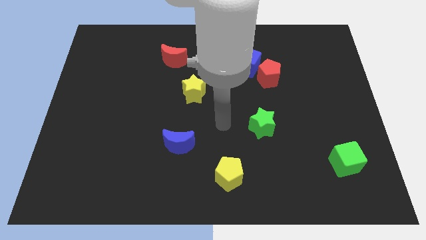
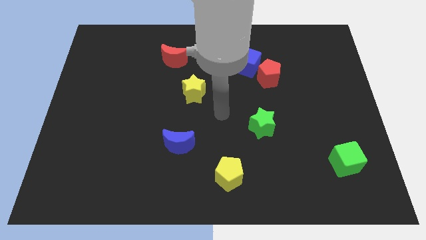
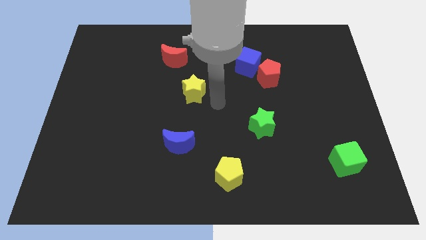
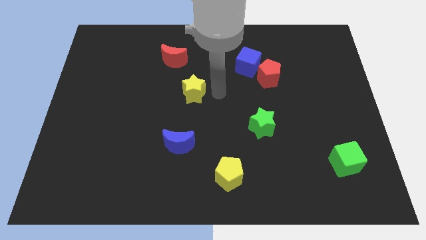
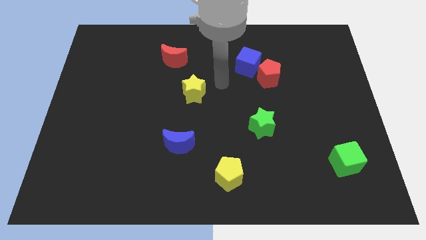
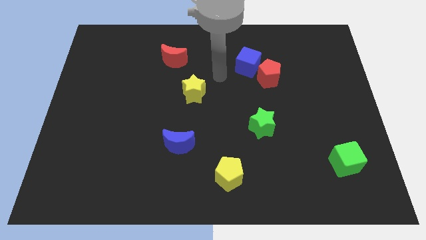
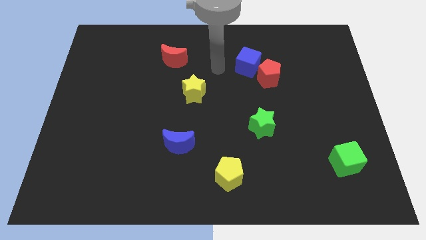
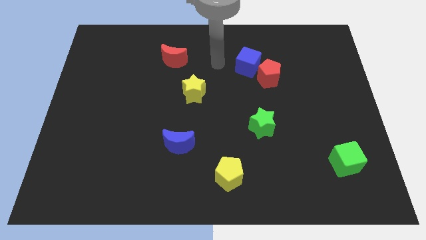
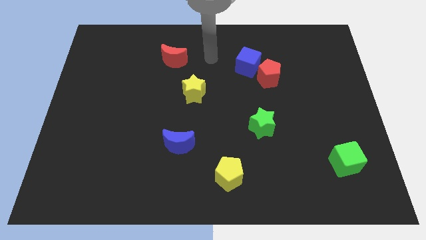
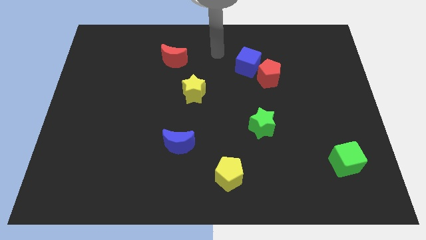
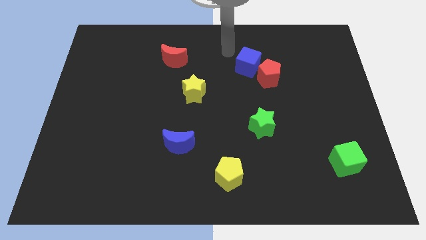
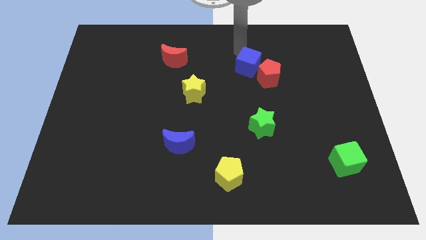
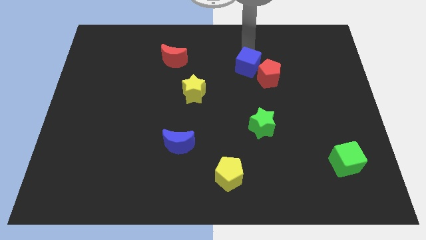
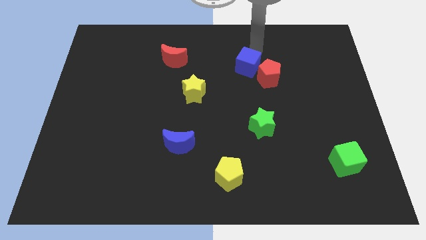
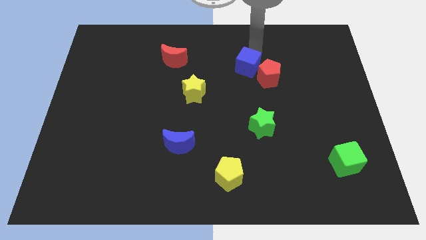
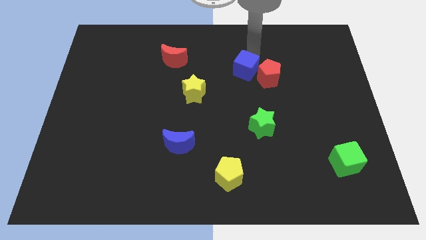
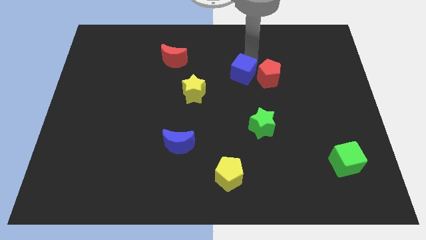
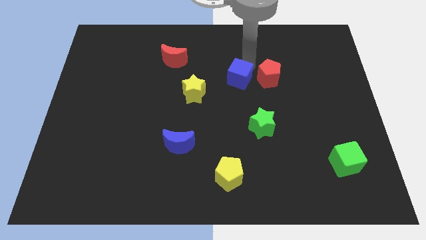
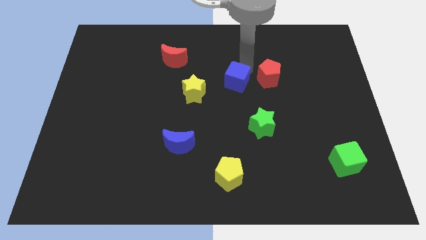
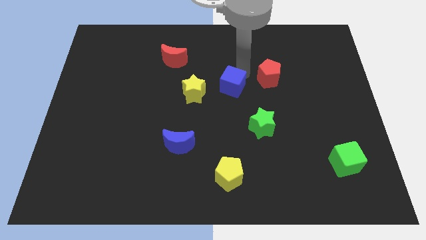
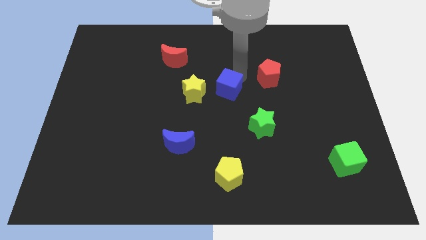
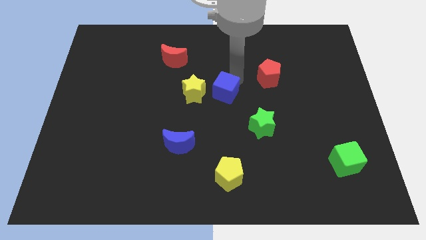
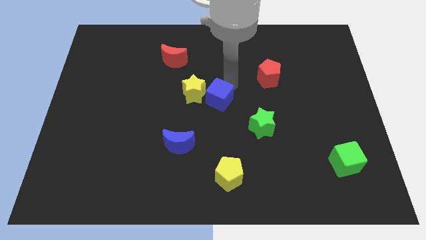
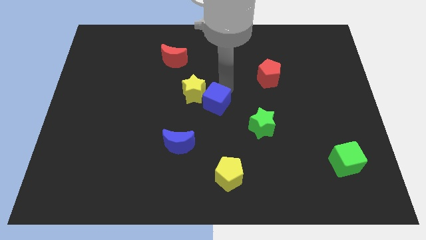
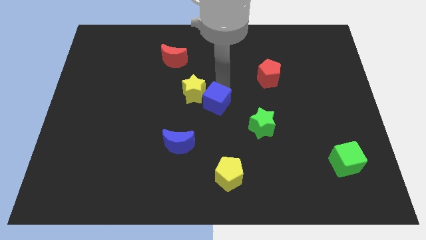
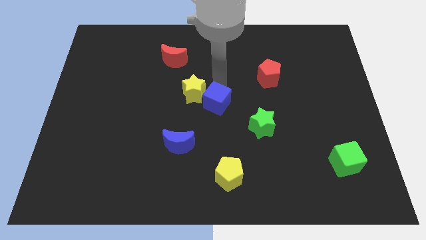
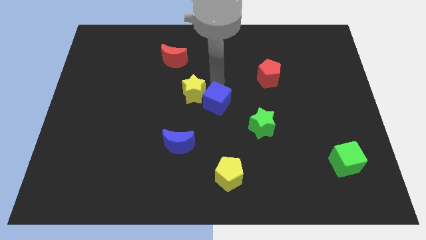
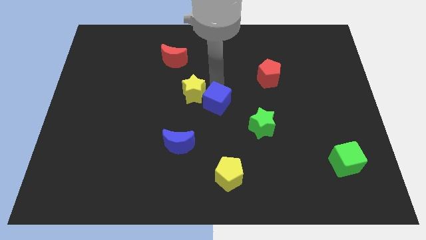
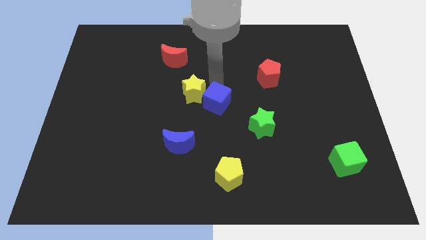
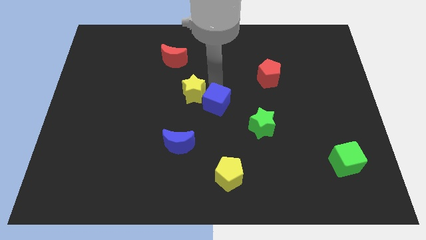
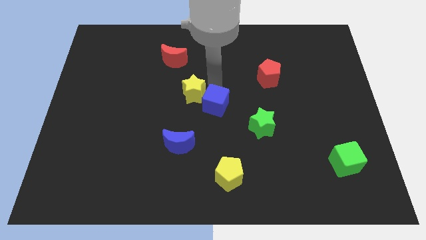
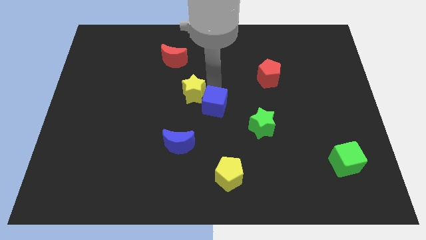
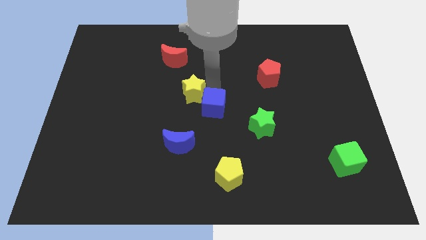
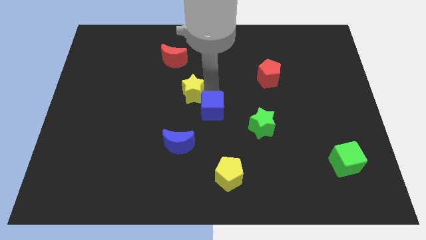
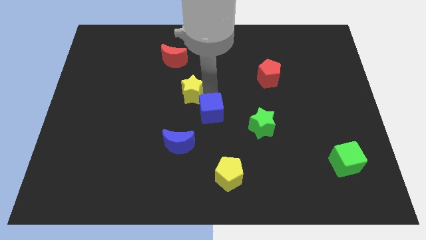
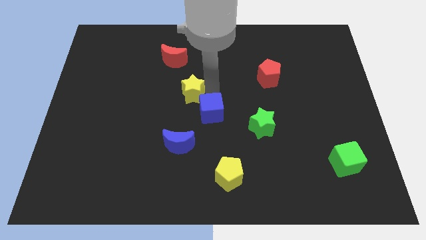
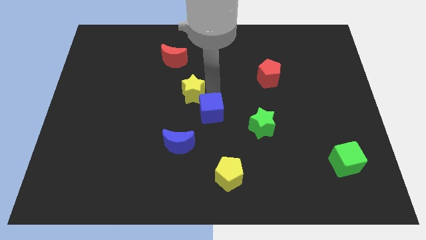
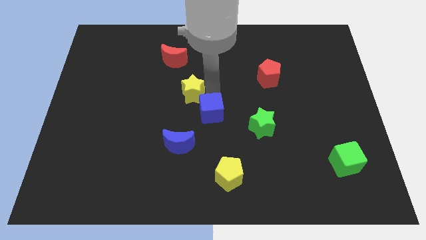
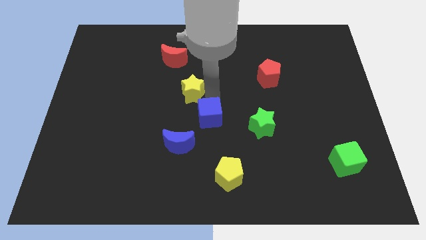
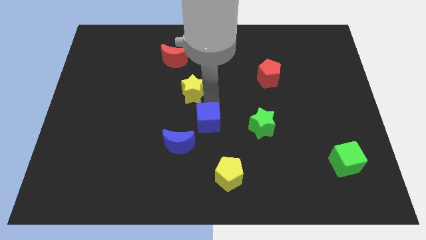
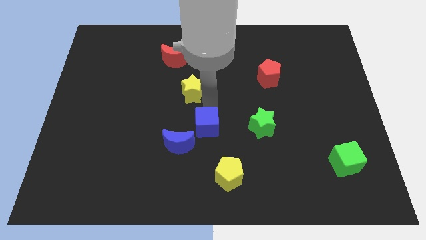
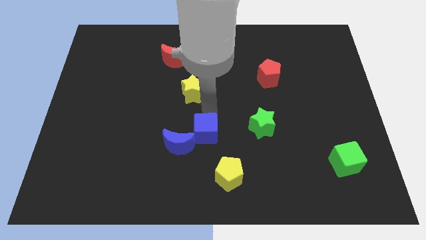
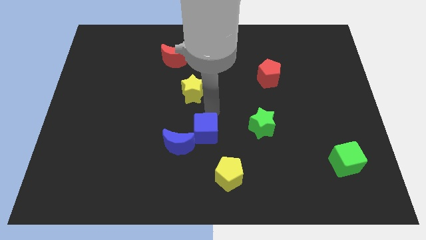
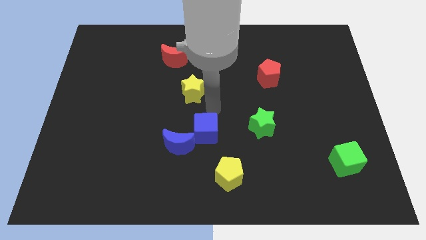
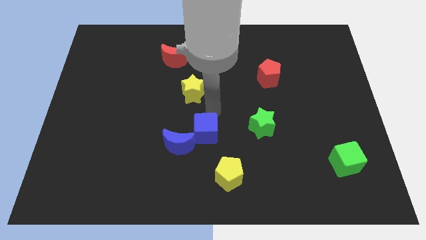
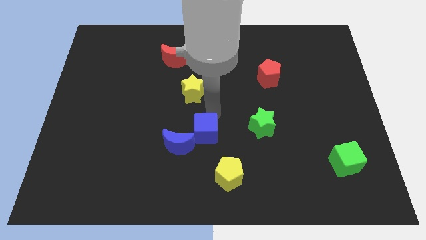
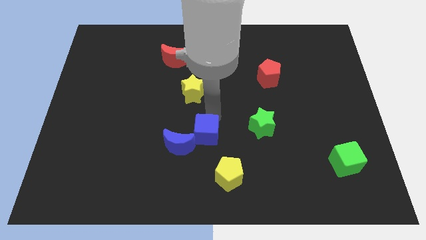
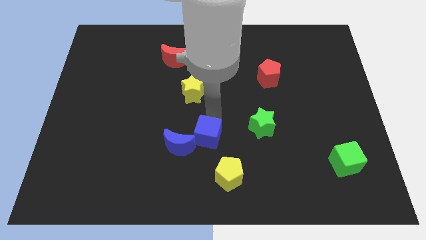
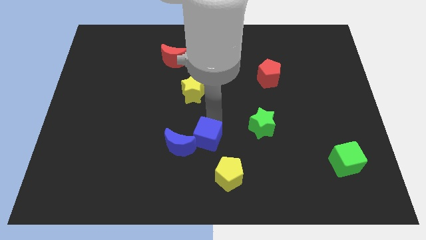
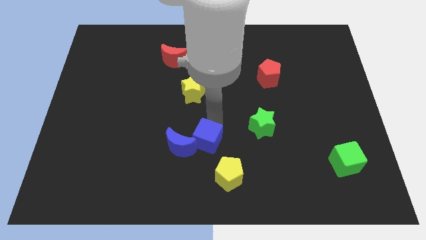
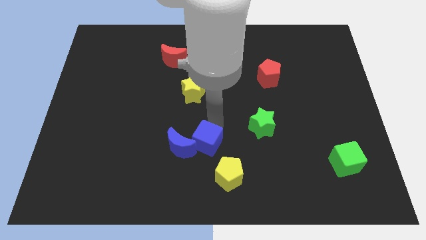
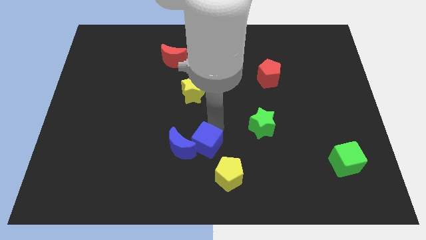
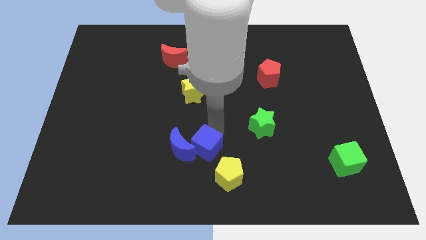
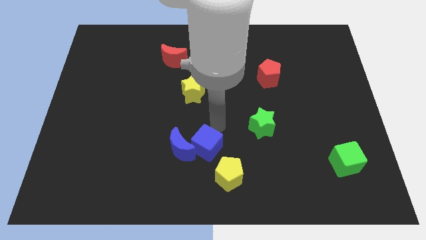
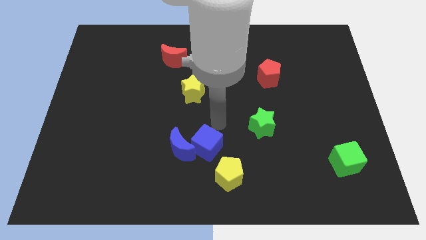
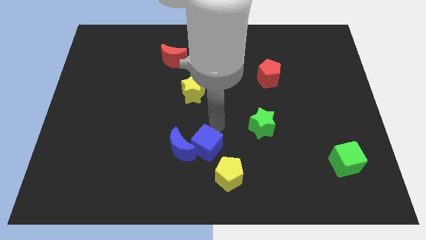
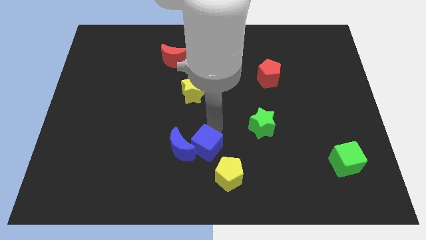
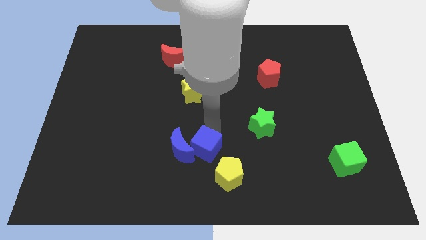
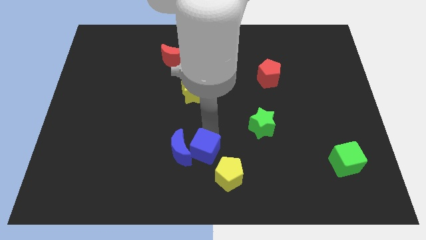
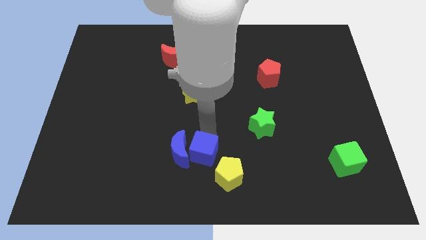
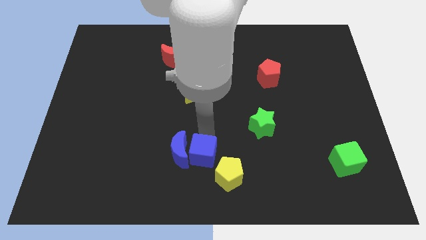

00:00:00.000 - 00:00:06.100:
put the blue cube to the bottom
